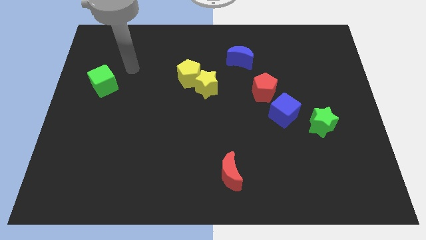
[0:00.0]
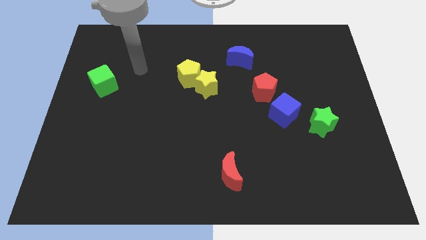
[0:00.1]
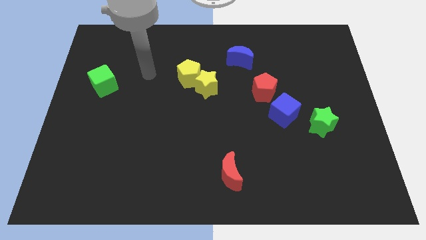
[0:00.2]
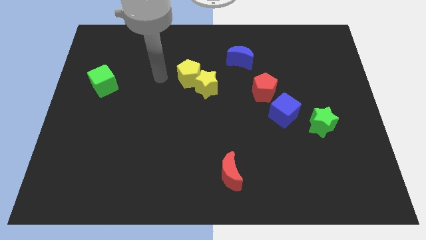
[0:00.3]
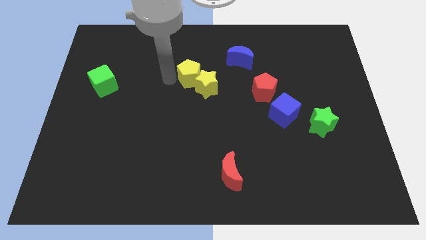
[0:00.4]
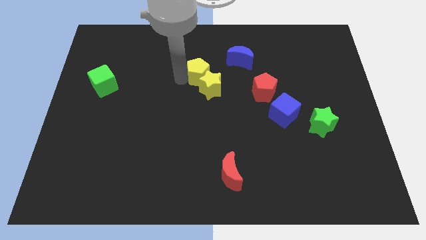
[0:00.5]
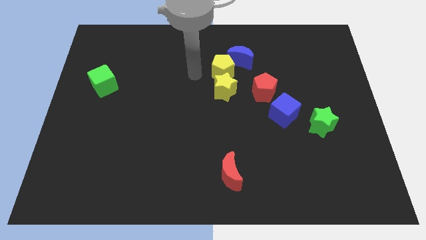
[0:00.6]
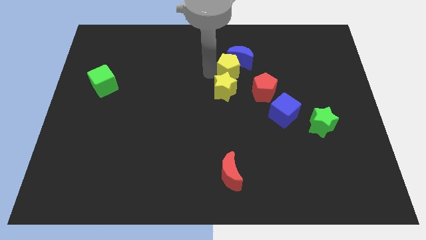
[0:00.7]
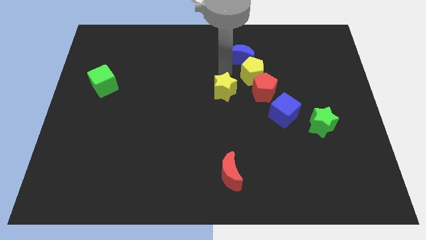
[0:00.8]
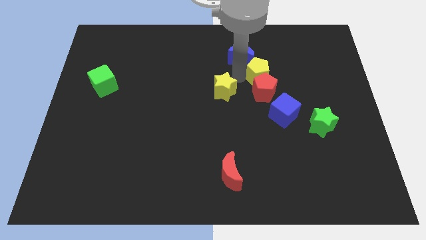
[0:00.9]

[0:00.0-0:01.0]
pull the yellow star apart from the yellow pentagon

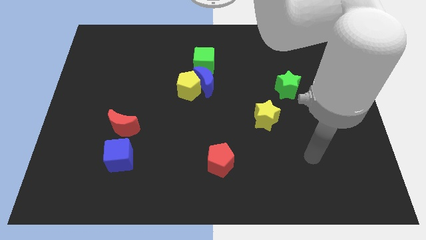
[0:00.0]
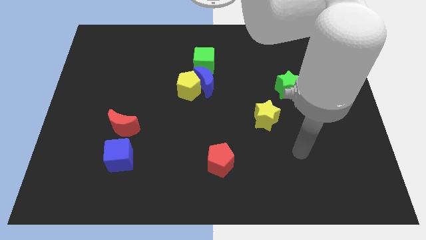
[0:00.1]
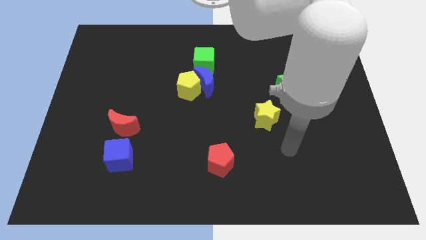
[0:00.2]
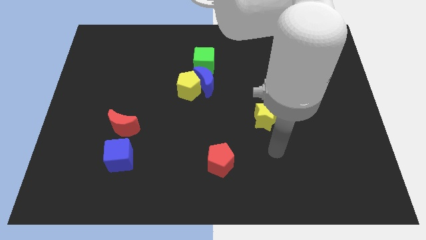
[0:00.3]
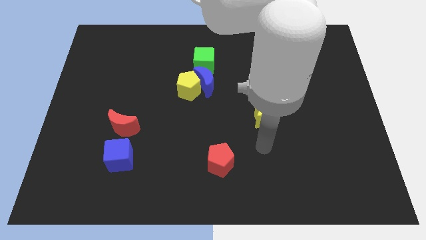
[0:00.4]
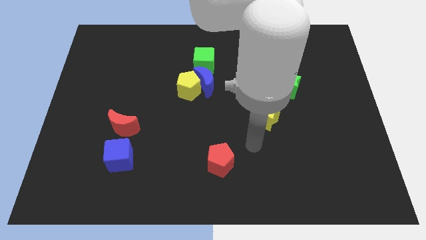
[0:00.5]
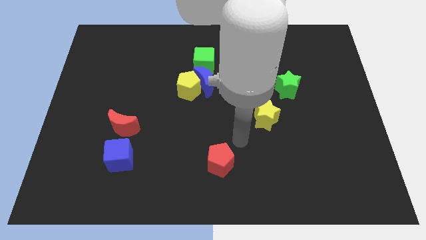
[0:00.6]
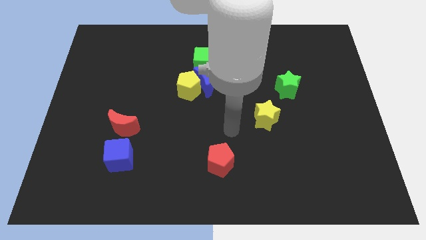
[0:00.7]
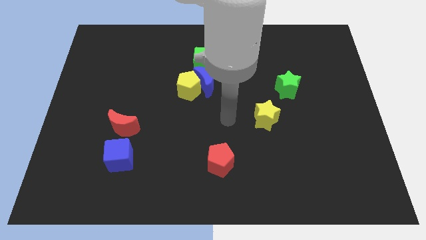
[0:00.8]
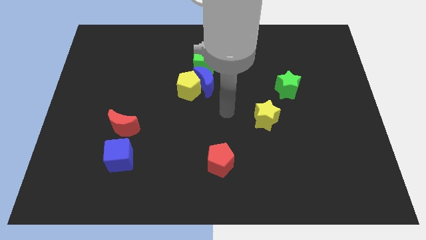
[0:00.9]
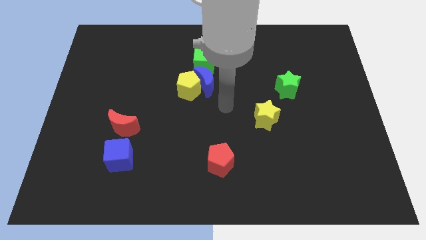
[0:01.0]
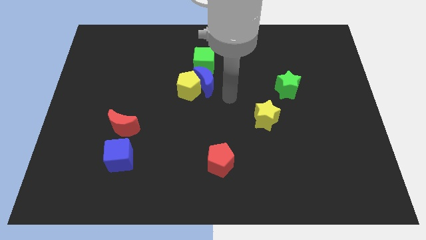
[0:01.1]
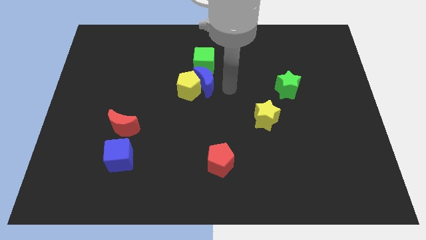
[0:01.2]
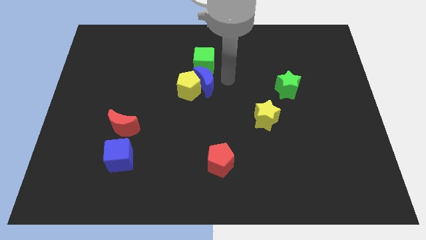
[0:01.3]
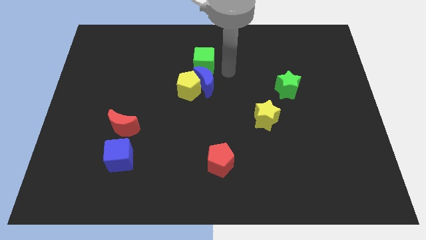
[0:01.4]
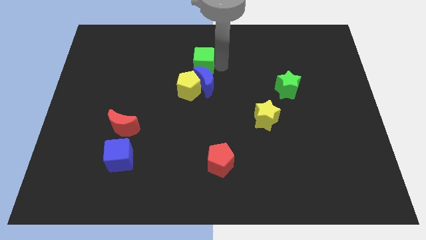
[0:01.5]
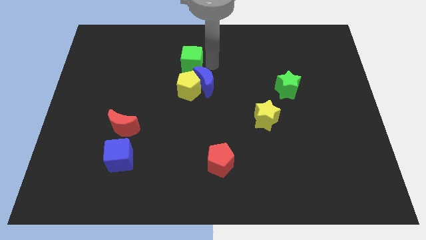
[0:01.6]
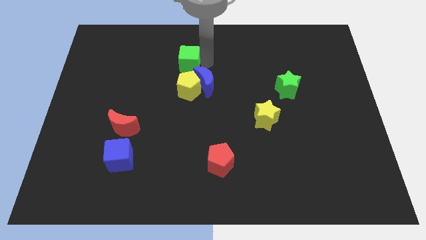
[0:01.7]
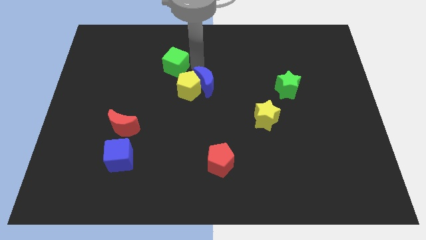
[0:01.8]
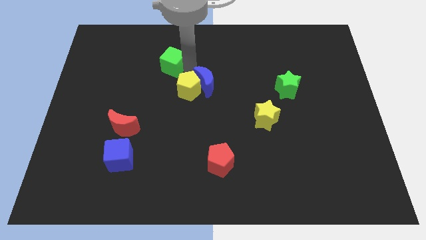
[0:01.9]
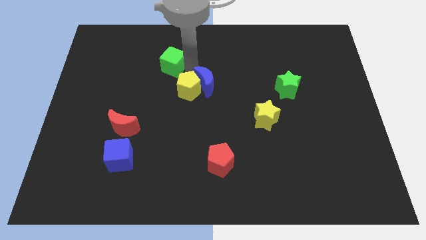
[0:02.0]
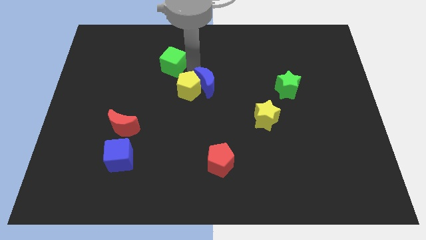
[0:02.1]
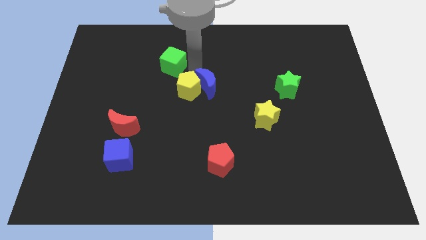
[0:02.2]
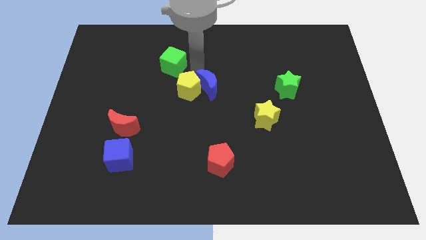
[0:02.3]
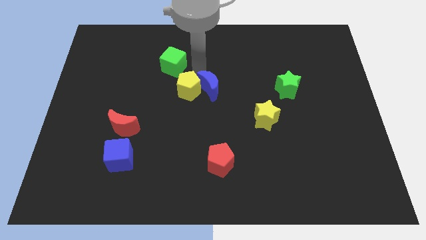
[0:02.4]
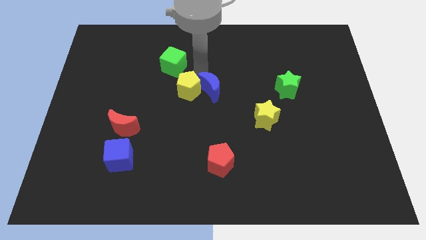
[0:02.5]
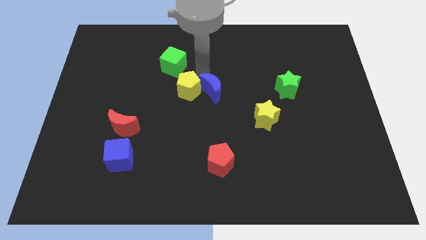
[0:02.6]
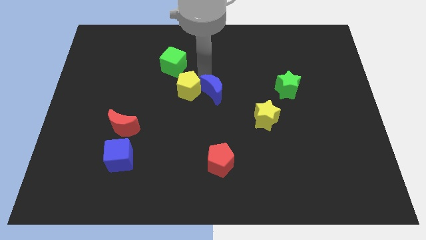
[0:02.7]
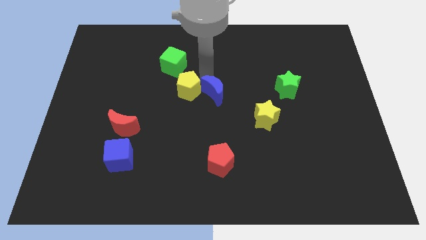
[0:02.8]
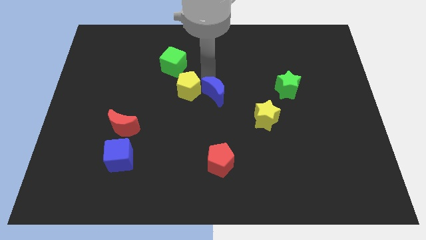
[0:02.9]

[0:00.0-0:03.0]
separate the blue moon from the yellow pentagon and green cube

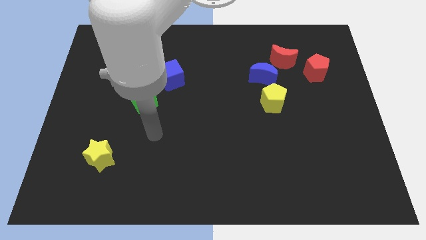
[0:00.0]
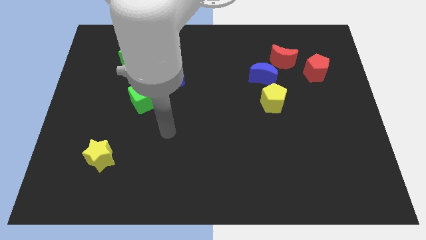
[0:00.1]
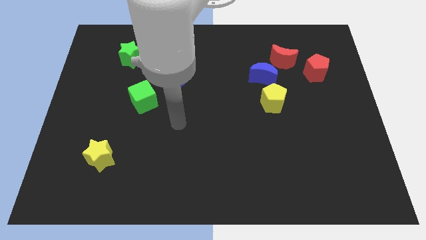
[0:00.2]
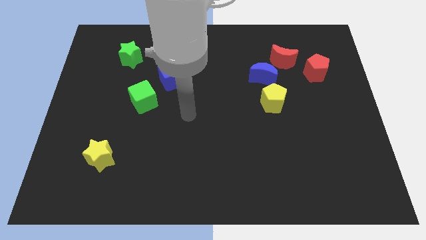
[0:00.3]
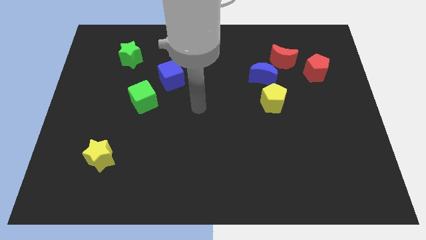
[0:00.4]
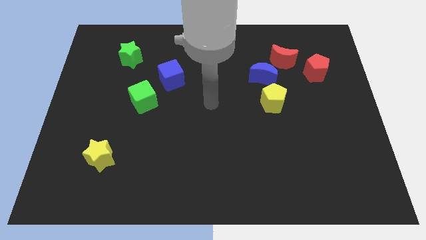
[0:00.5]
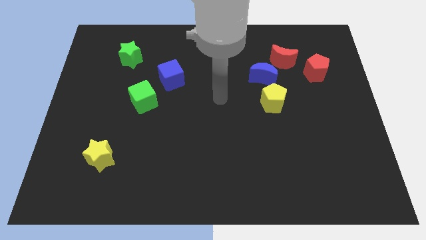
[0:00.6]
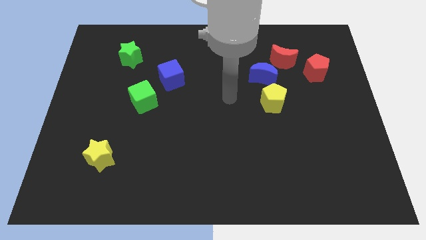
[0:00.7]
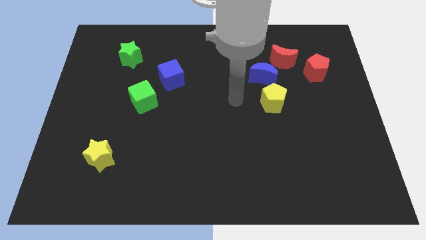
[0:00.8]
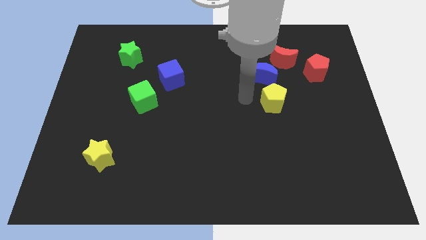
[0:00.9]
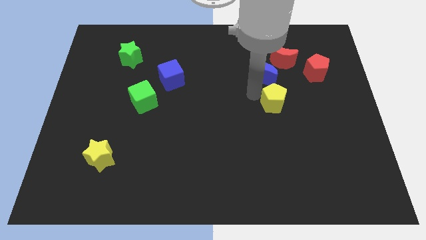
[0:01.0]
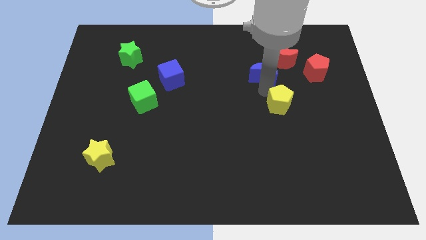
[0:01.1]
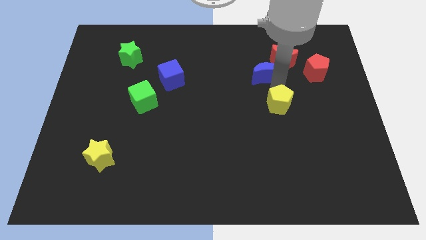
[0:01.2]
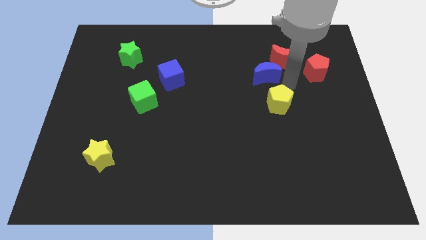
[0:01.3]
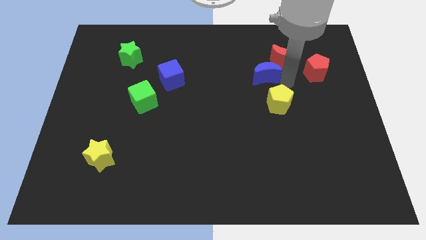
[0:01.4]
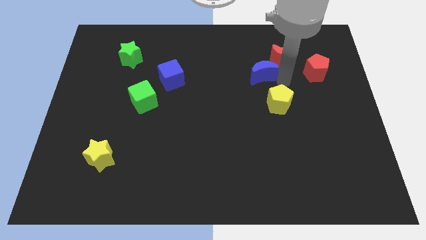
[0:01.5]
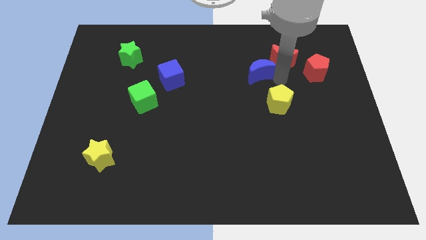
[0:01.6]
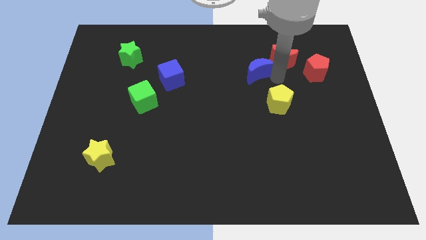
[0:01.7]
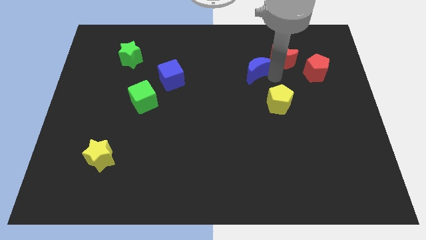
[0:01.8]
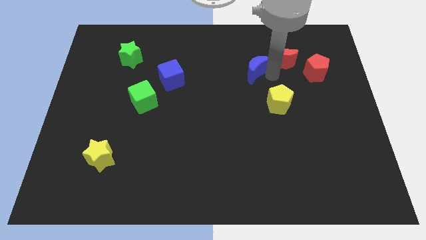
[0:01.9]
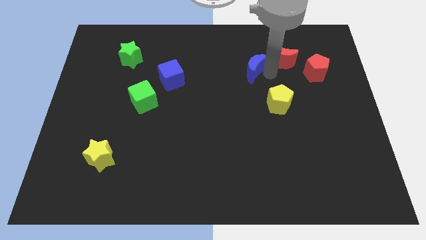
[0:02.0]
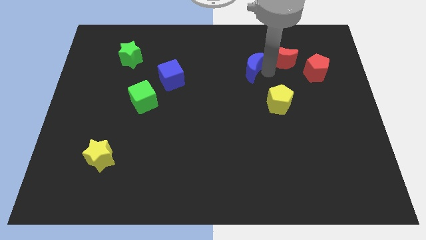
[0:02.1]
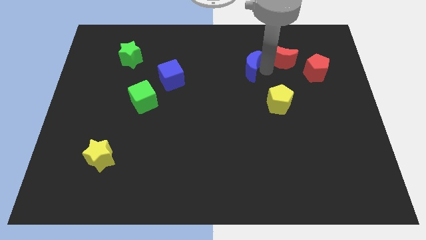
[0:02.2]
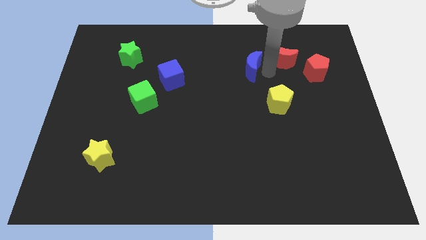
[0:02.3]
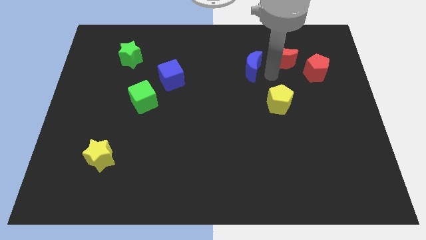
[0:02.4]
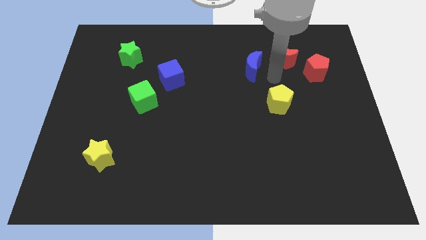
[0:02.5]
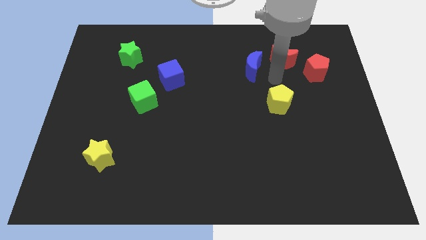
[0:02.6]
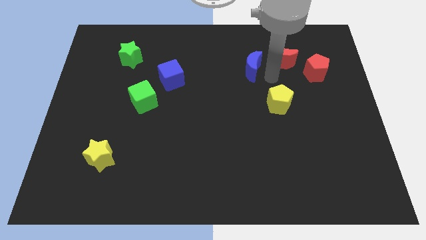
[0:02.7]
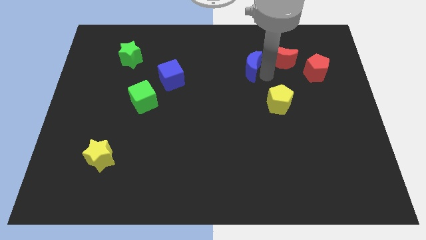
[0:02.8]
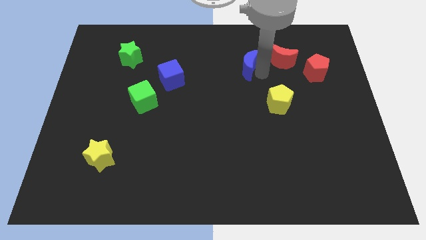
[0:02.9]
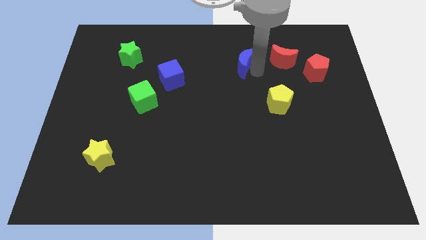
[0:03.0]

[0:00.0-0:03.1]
pull the blue moon apart from the red moon and yellow pentagon

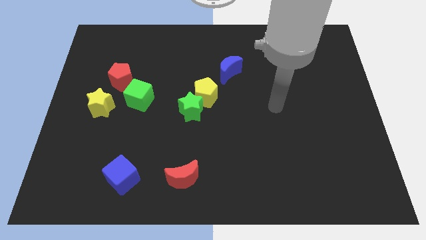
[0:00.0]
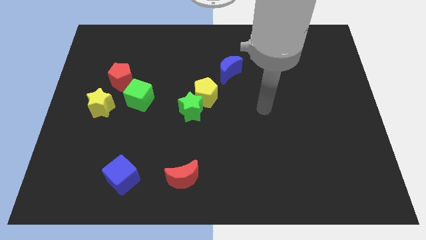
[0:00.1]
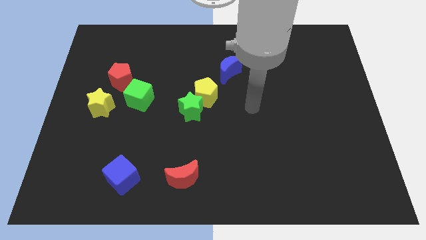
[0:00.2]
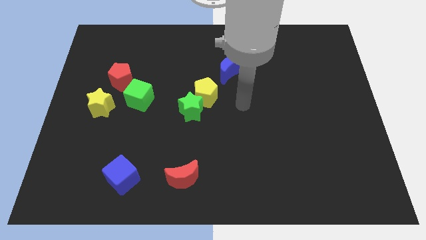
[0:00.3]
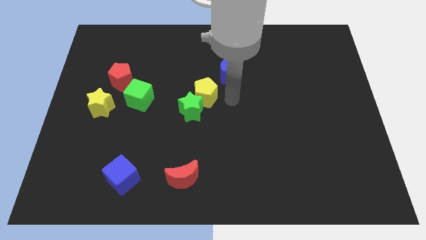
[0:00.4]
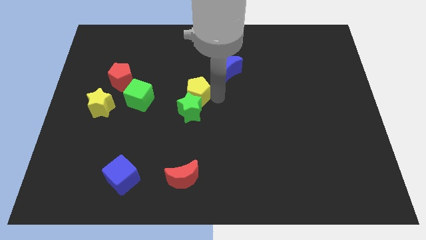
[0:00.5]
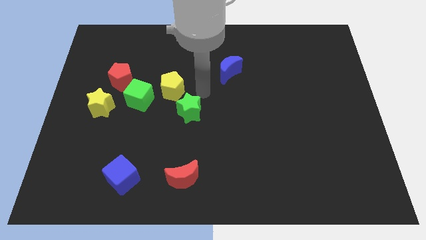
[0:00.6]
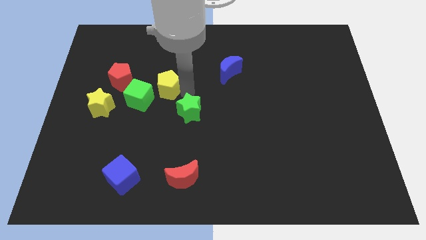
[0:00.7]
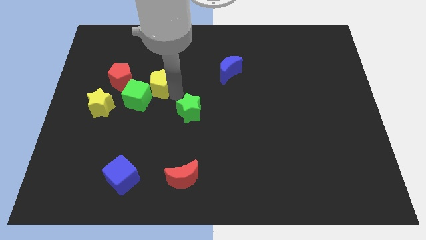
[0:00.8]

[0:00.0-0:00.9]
pull the green star apart from the yellow pentagon

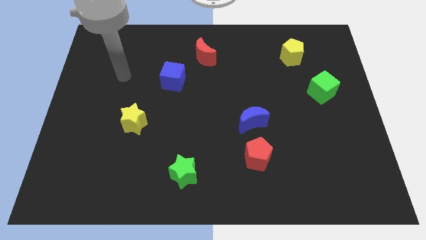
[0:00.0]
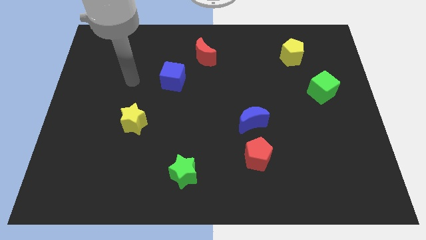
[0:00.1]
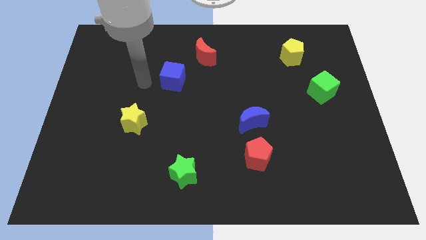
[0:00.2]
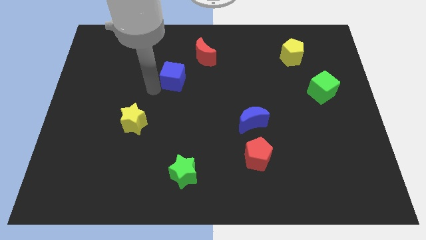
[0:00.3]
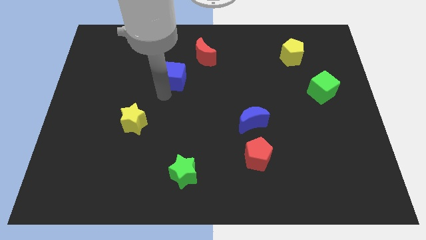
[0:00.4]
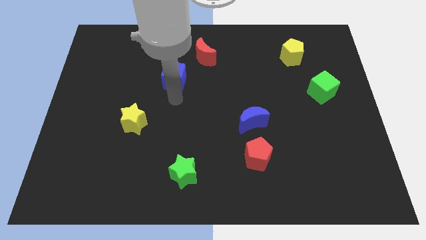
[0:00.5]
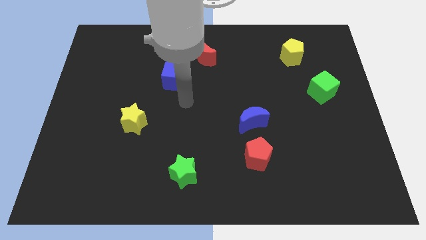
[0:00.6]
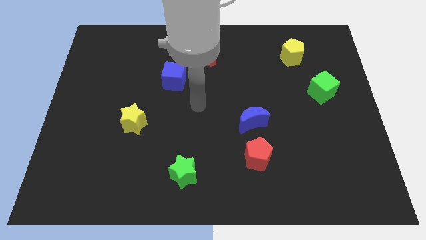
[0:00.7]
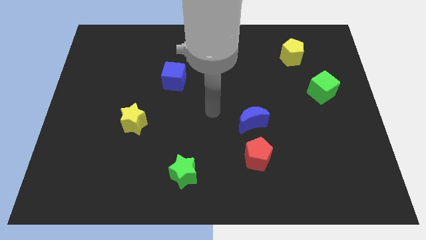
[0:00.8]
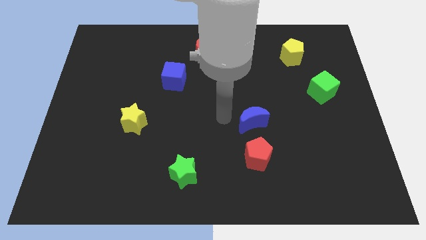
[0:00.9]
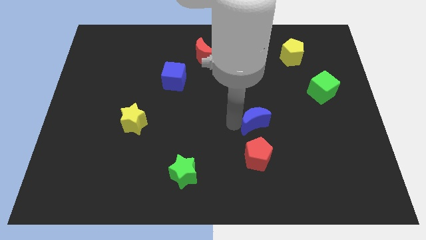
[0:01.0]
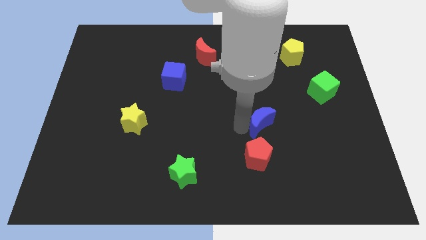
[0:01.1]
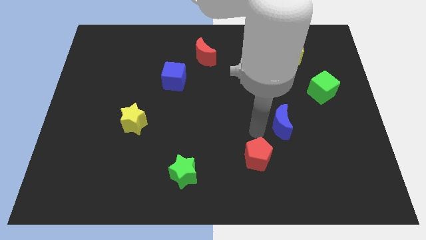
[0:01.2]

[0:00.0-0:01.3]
separate the red pentagon from the blue moon
